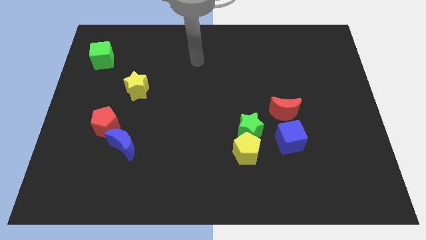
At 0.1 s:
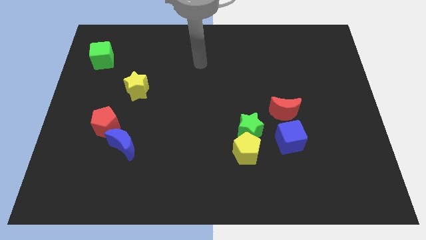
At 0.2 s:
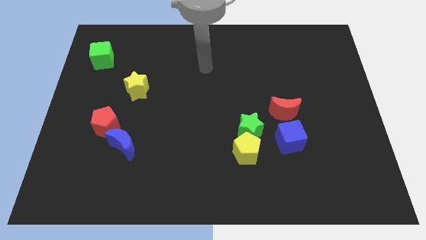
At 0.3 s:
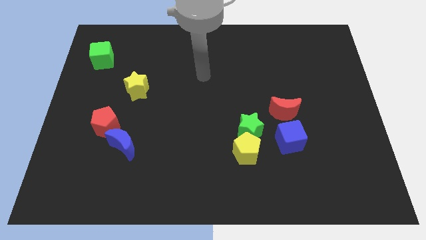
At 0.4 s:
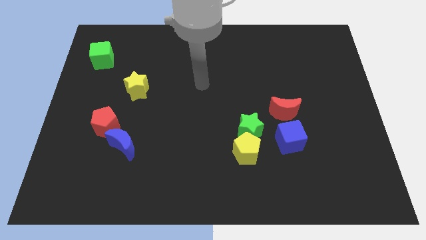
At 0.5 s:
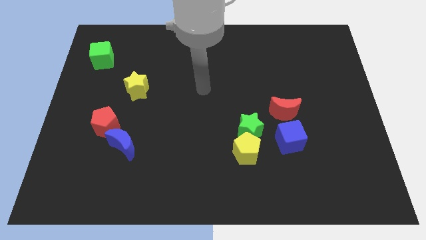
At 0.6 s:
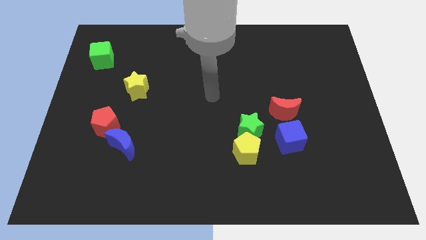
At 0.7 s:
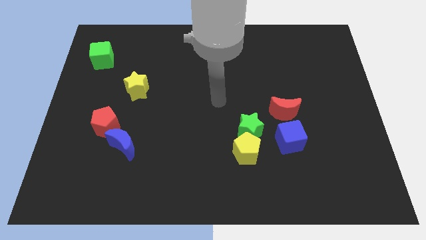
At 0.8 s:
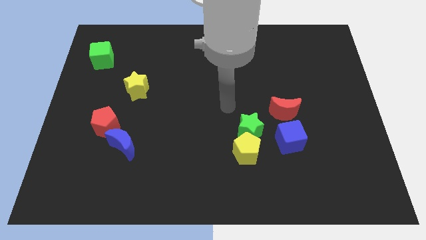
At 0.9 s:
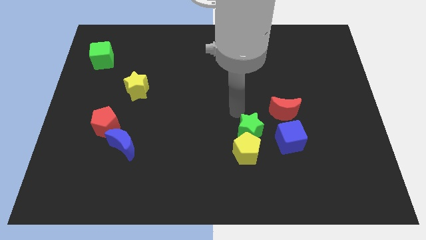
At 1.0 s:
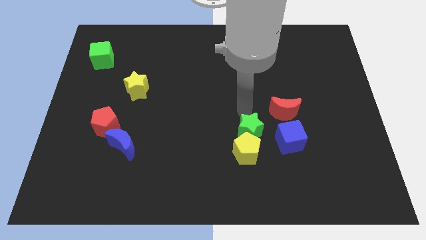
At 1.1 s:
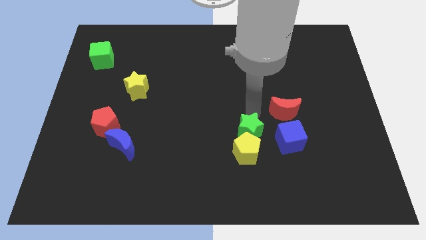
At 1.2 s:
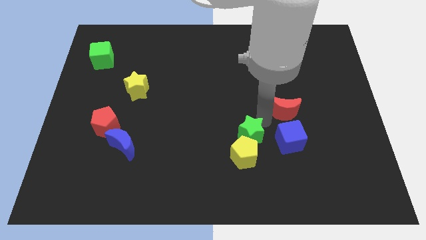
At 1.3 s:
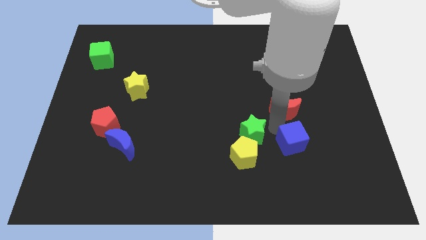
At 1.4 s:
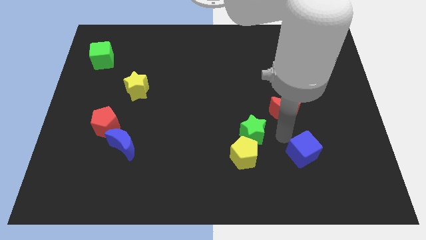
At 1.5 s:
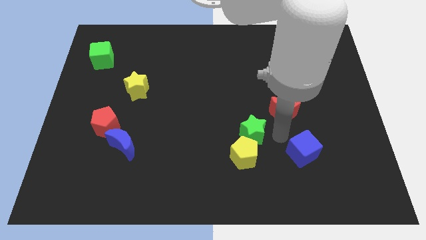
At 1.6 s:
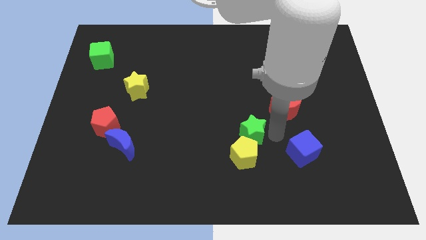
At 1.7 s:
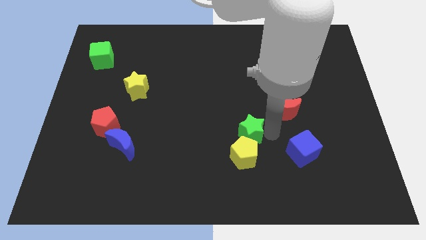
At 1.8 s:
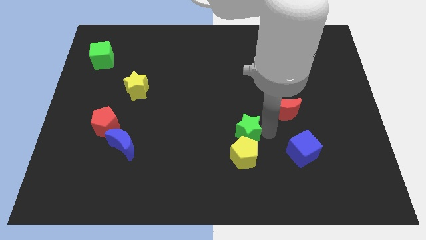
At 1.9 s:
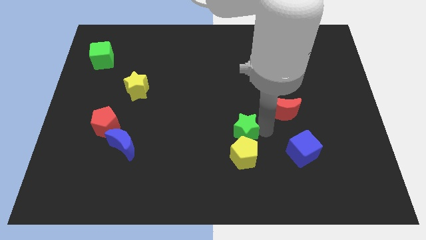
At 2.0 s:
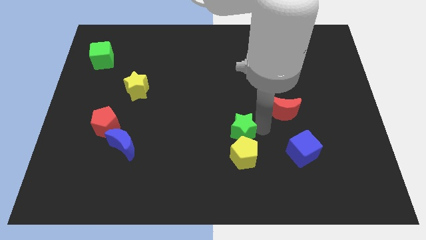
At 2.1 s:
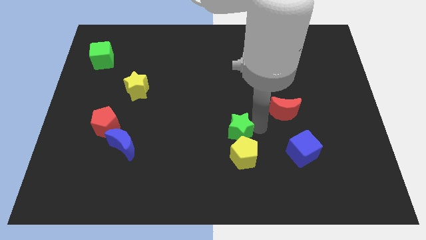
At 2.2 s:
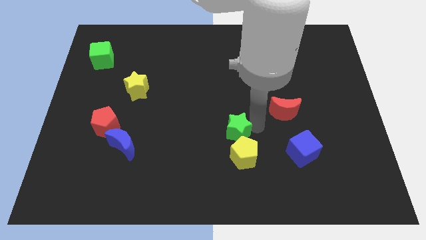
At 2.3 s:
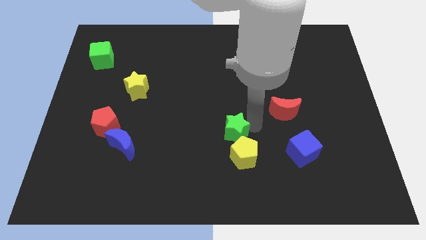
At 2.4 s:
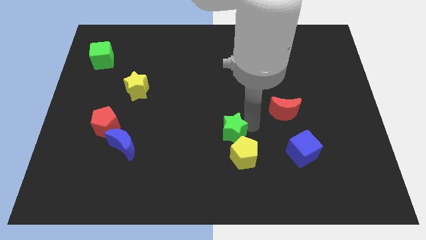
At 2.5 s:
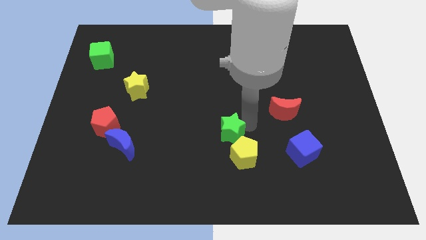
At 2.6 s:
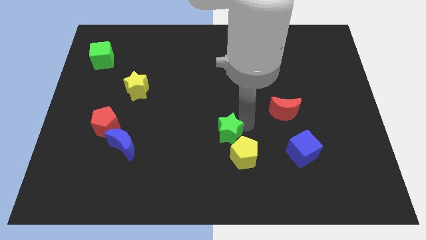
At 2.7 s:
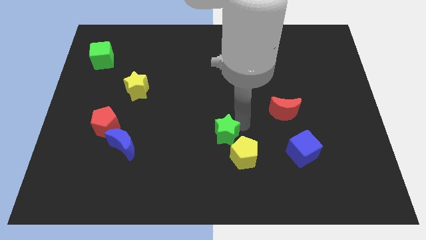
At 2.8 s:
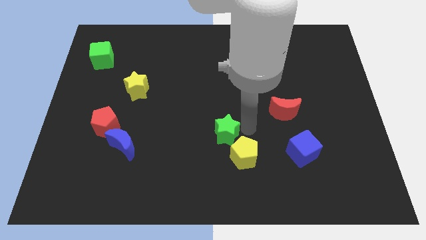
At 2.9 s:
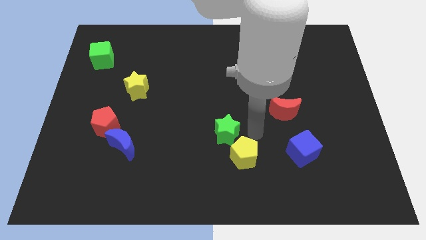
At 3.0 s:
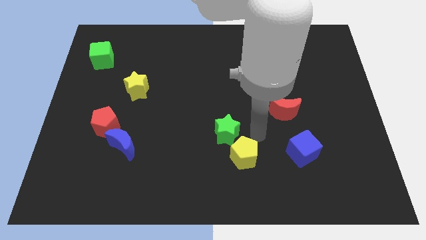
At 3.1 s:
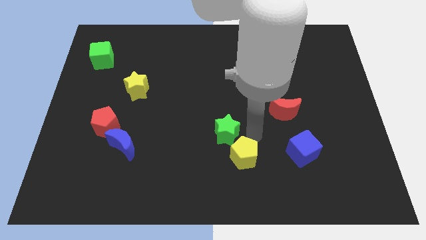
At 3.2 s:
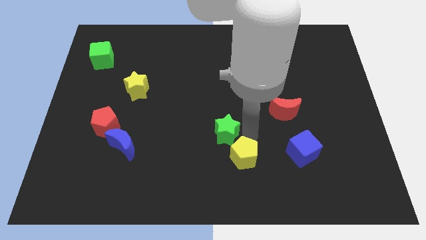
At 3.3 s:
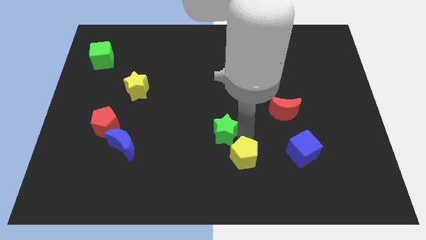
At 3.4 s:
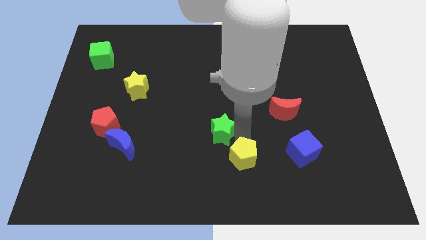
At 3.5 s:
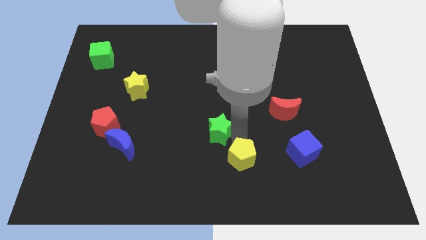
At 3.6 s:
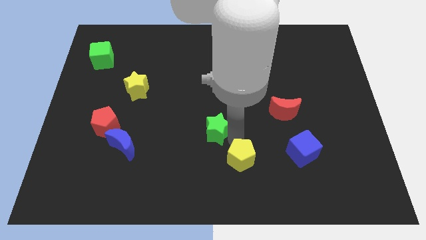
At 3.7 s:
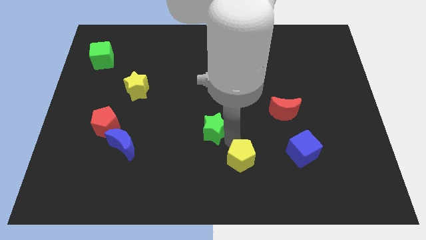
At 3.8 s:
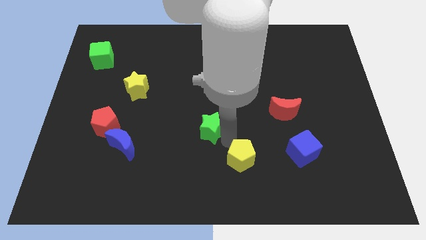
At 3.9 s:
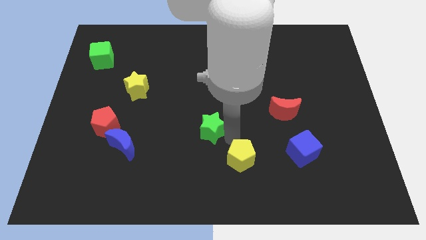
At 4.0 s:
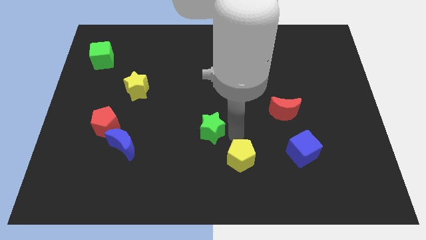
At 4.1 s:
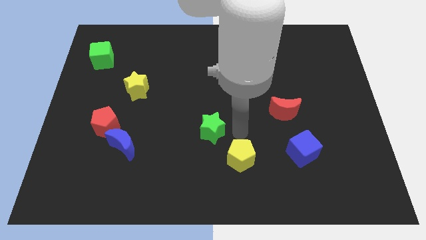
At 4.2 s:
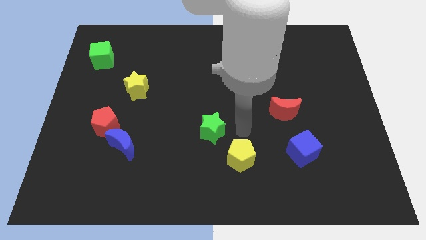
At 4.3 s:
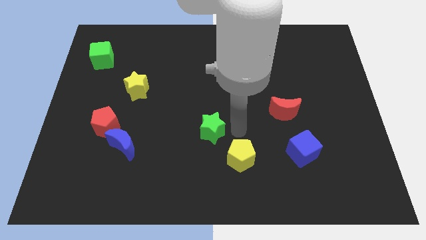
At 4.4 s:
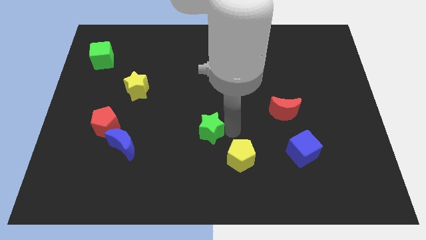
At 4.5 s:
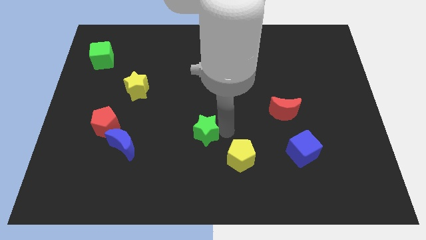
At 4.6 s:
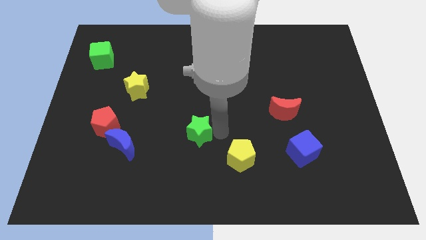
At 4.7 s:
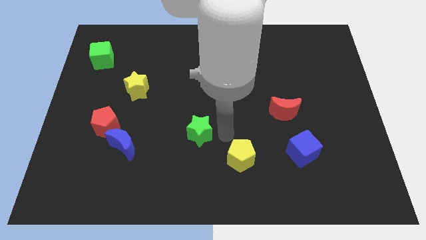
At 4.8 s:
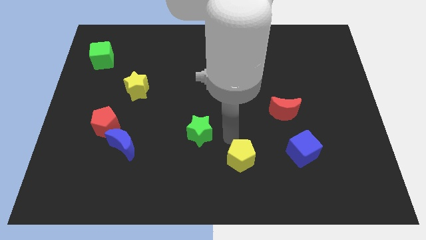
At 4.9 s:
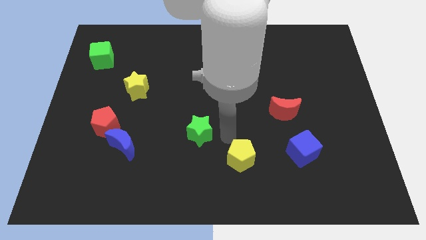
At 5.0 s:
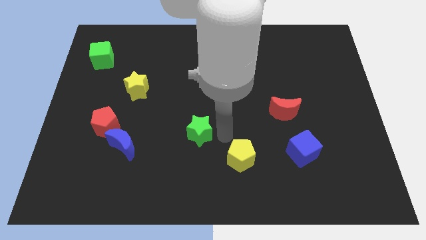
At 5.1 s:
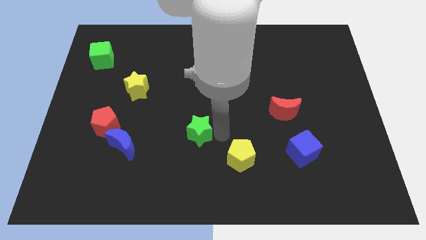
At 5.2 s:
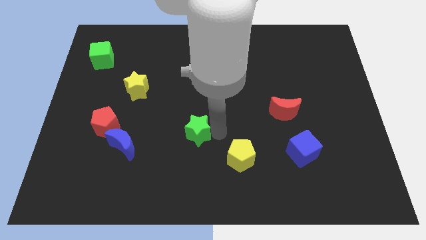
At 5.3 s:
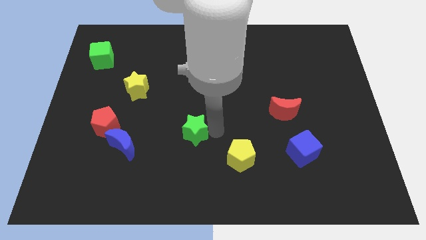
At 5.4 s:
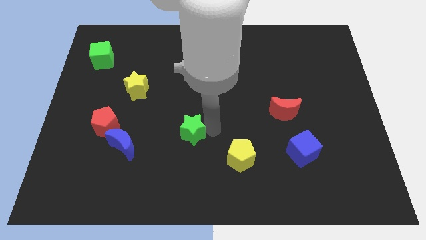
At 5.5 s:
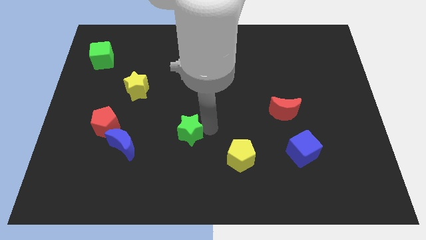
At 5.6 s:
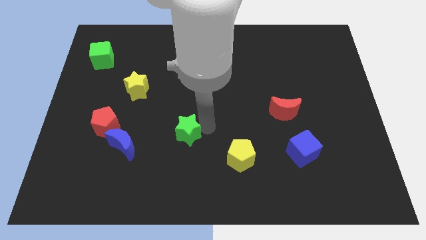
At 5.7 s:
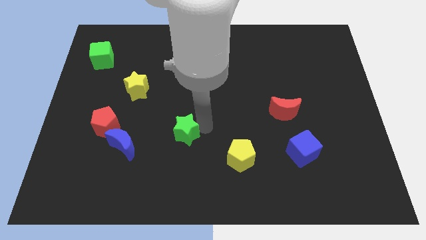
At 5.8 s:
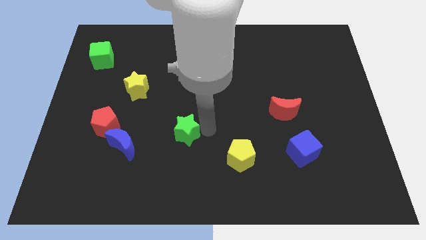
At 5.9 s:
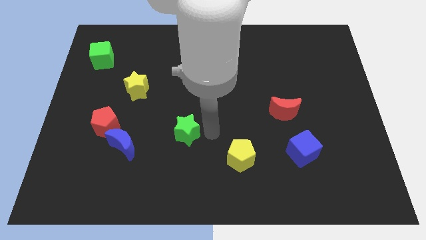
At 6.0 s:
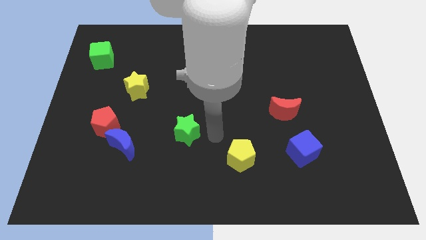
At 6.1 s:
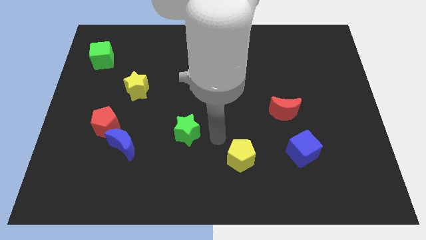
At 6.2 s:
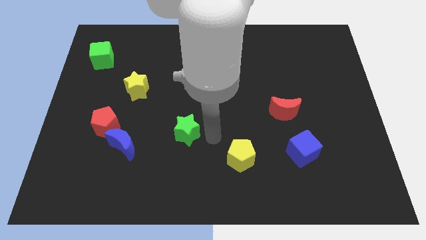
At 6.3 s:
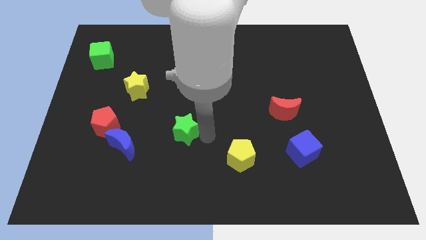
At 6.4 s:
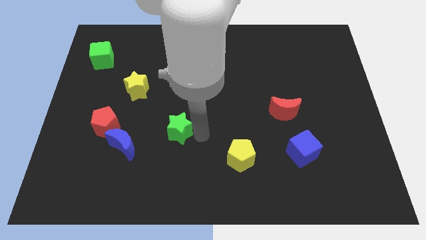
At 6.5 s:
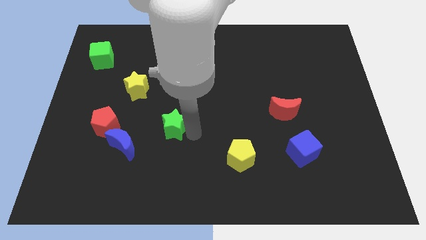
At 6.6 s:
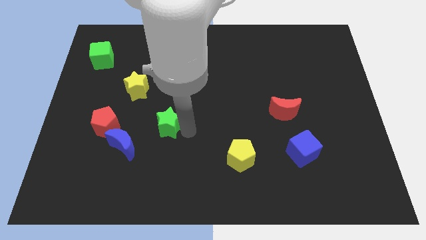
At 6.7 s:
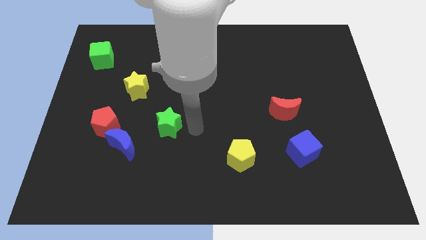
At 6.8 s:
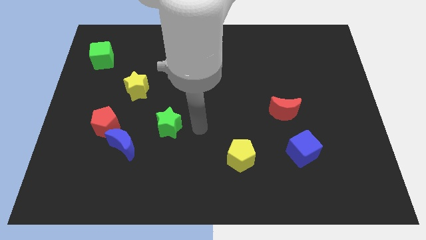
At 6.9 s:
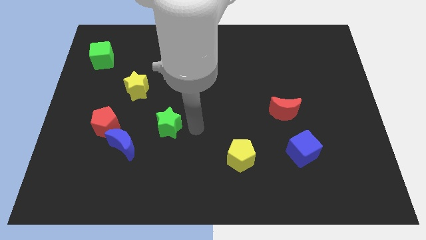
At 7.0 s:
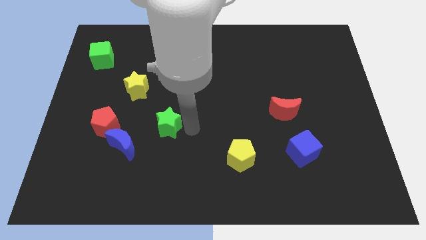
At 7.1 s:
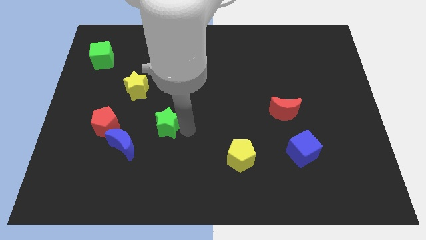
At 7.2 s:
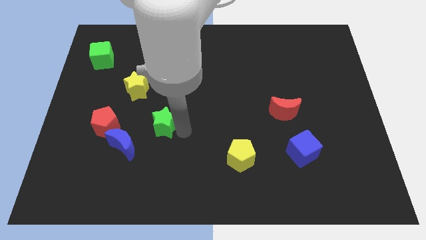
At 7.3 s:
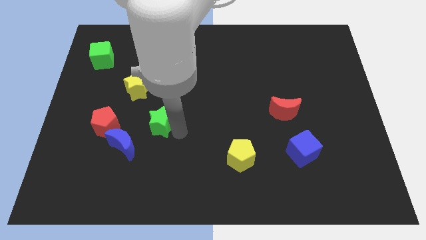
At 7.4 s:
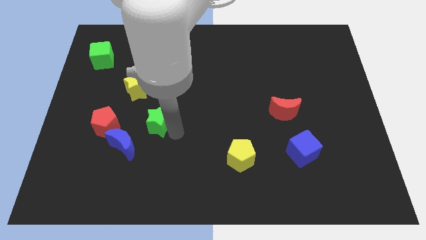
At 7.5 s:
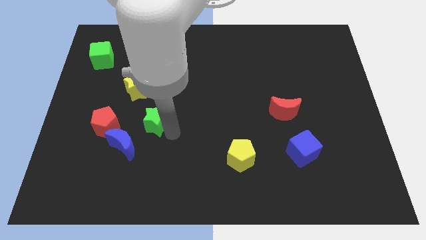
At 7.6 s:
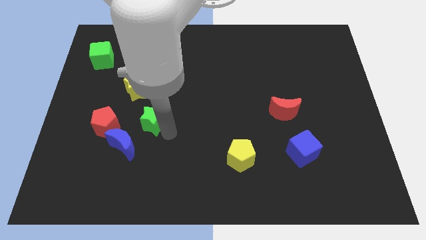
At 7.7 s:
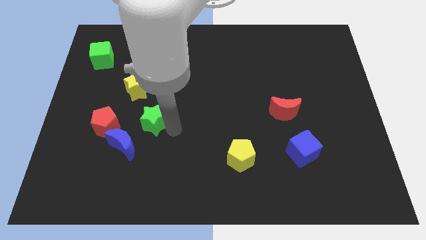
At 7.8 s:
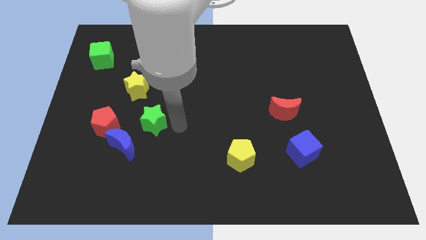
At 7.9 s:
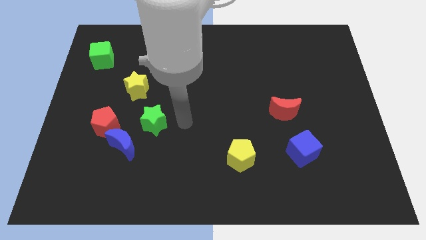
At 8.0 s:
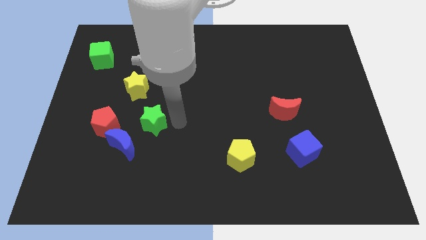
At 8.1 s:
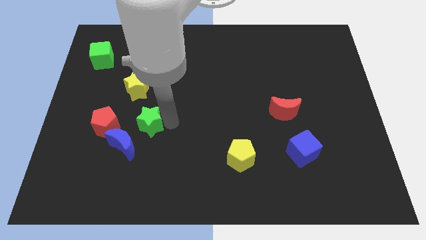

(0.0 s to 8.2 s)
put the green star to the bottom of the yellow star
